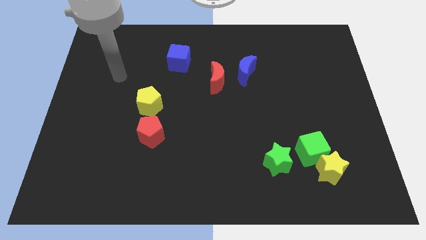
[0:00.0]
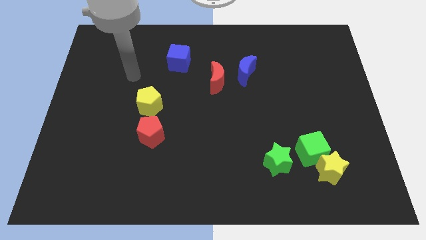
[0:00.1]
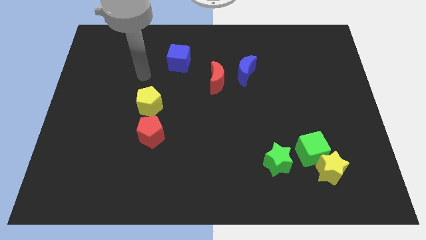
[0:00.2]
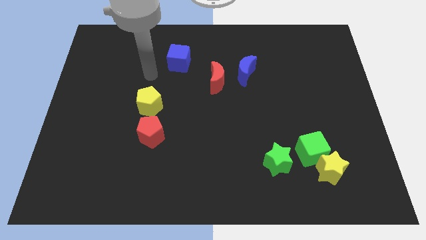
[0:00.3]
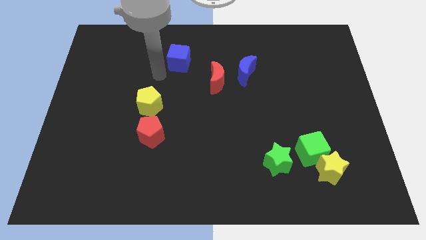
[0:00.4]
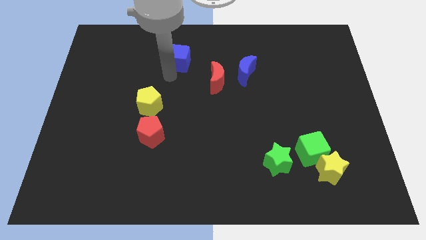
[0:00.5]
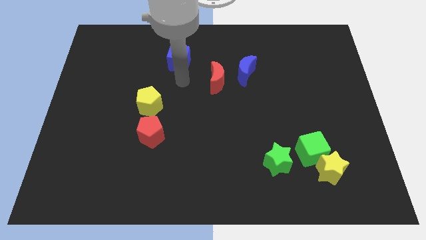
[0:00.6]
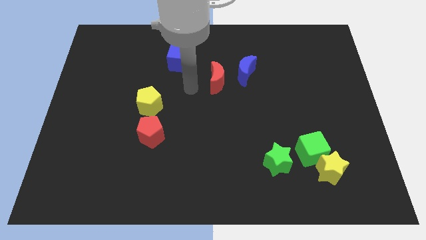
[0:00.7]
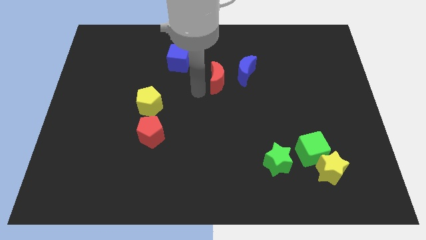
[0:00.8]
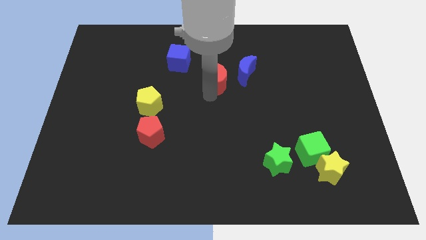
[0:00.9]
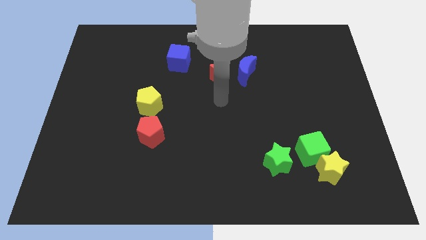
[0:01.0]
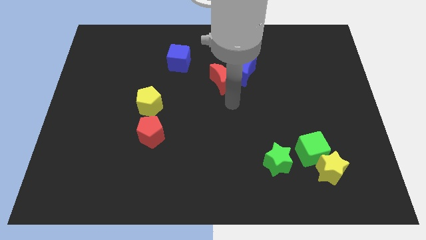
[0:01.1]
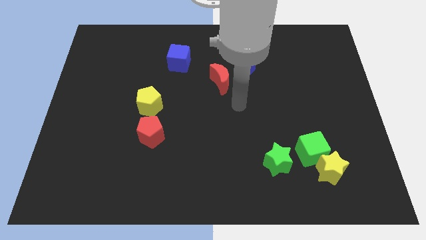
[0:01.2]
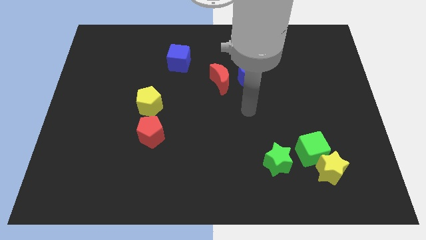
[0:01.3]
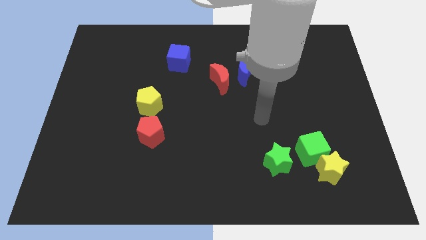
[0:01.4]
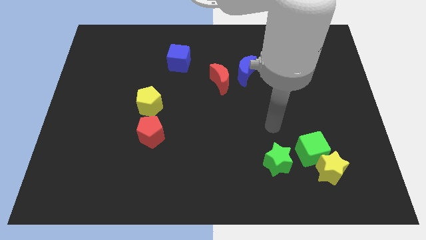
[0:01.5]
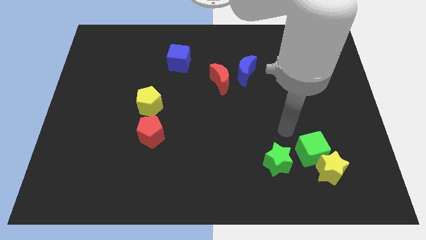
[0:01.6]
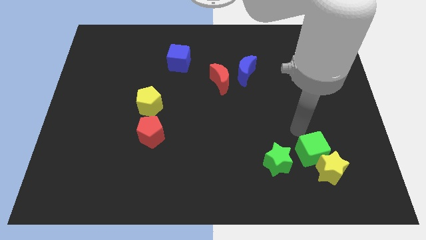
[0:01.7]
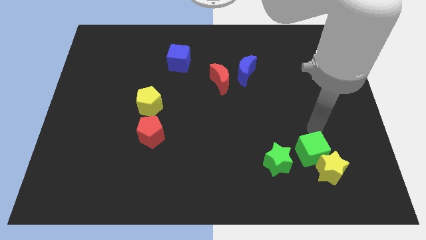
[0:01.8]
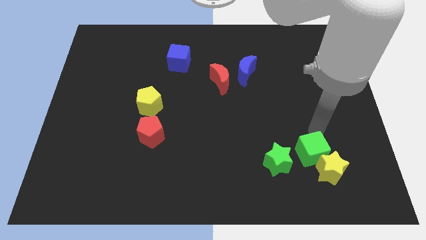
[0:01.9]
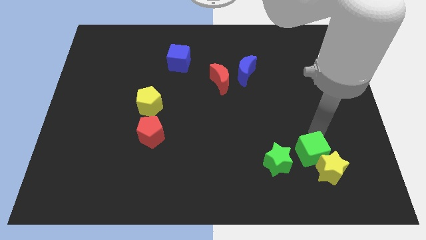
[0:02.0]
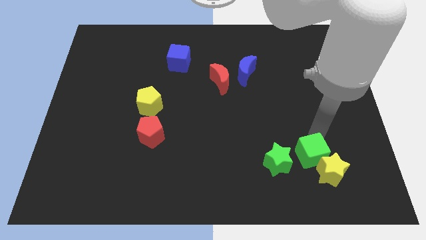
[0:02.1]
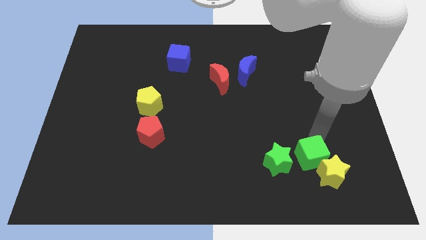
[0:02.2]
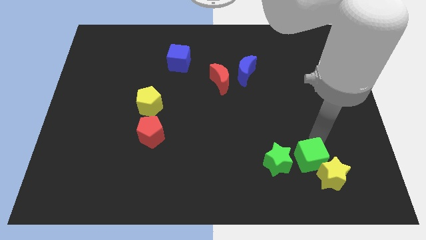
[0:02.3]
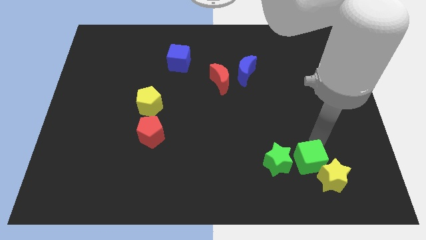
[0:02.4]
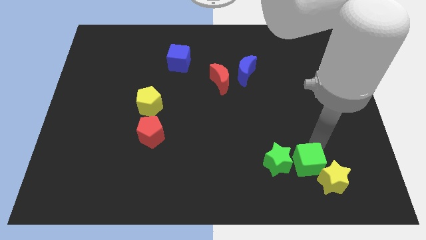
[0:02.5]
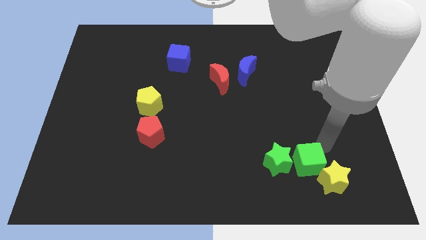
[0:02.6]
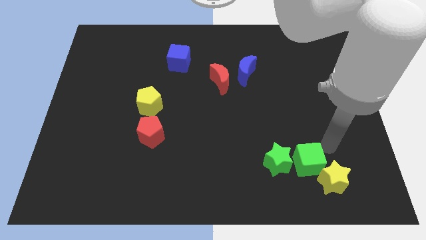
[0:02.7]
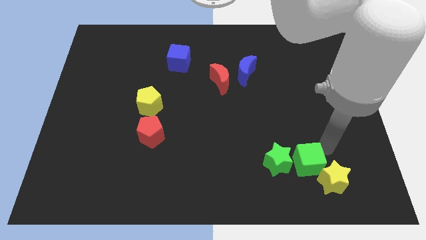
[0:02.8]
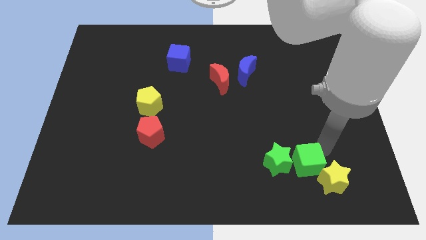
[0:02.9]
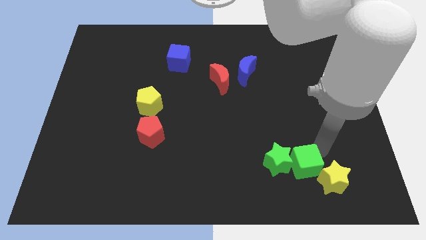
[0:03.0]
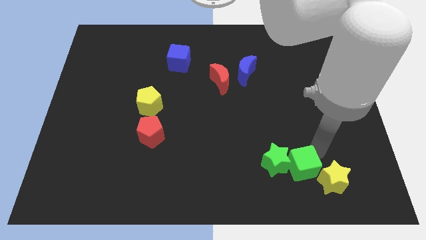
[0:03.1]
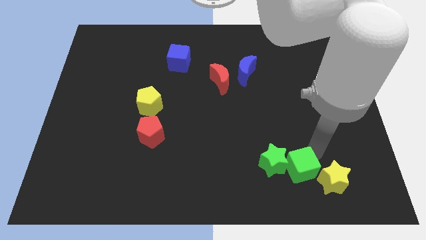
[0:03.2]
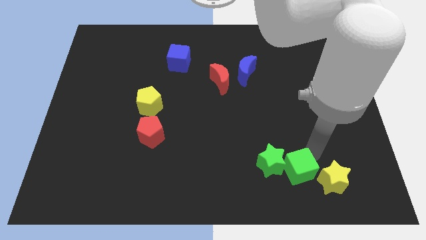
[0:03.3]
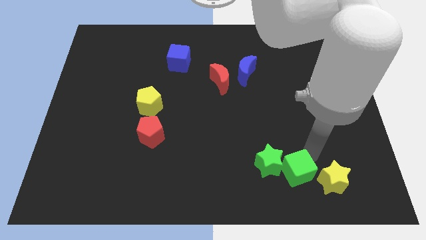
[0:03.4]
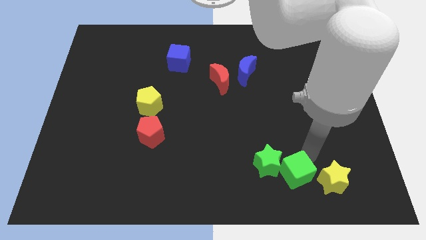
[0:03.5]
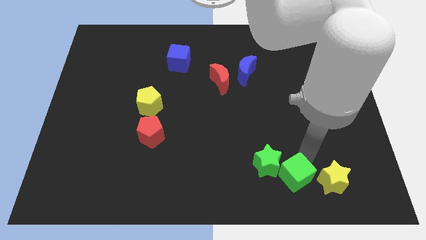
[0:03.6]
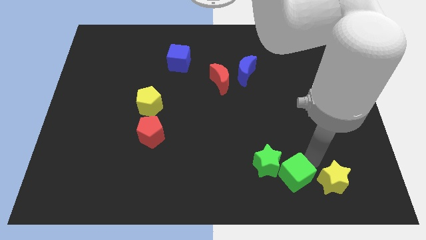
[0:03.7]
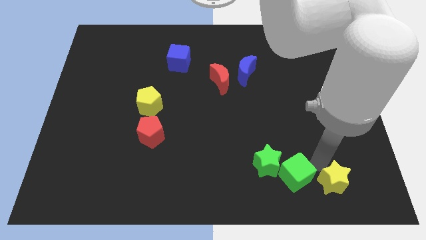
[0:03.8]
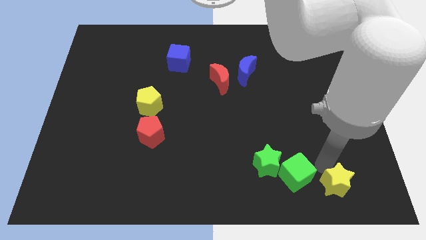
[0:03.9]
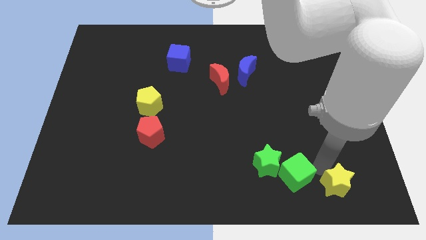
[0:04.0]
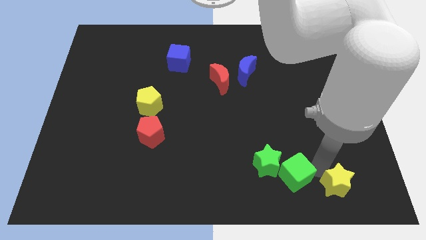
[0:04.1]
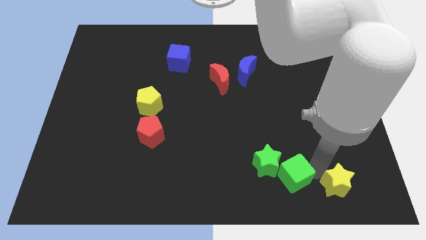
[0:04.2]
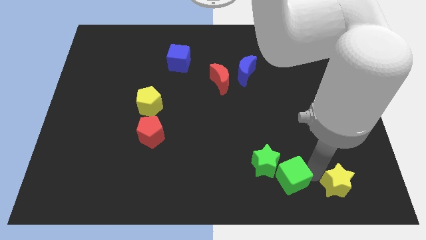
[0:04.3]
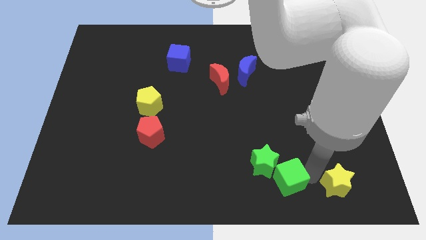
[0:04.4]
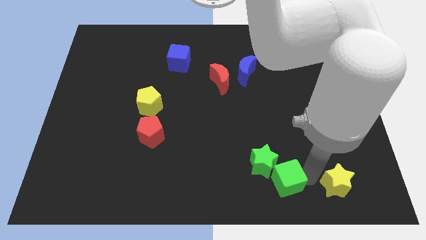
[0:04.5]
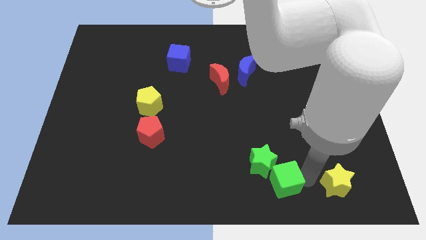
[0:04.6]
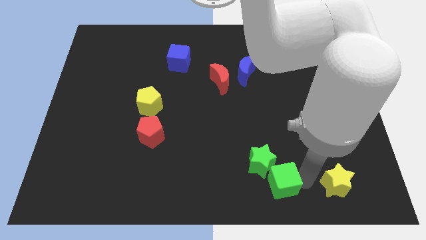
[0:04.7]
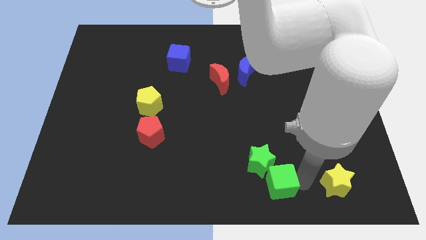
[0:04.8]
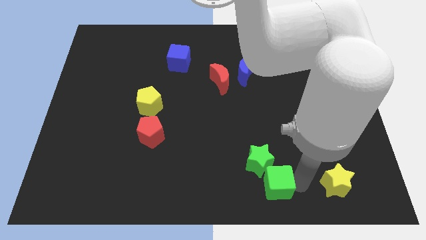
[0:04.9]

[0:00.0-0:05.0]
move the green cube to the bottom side

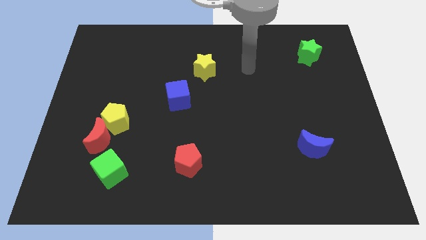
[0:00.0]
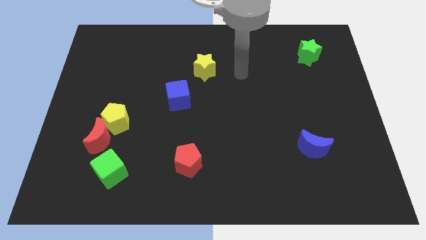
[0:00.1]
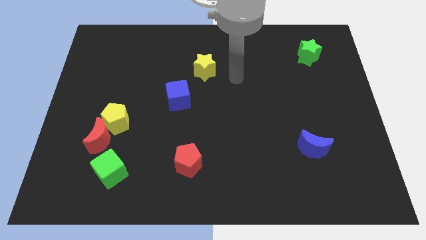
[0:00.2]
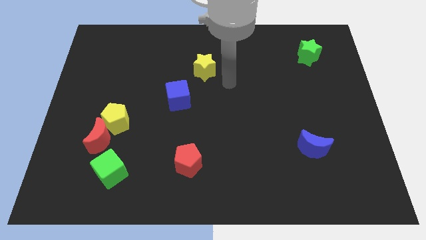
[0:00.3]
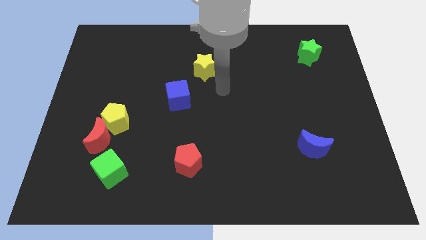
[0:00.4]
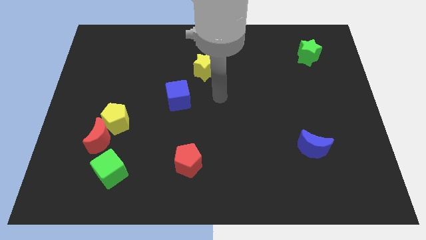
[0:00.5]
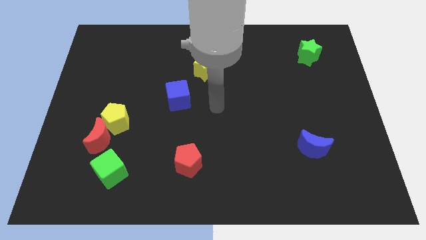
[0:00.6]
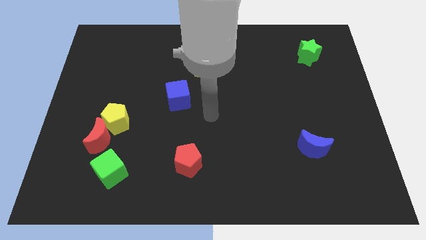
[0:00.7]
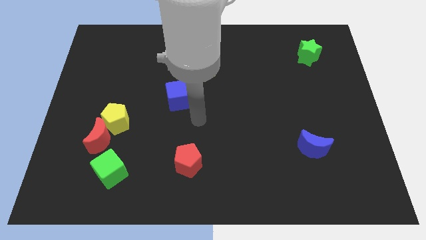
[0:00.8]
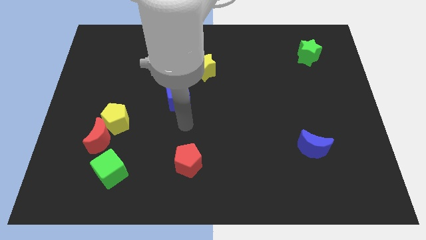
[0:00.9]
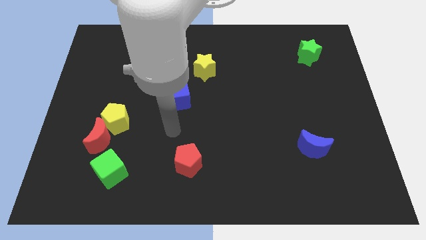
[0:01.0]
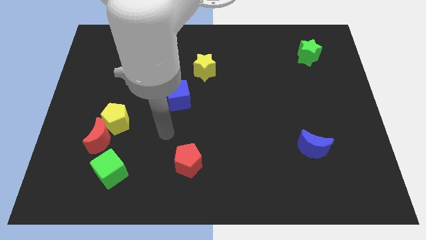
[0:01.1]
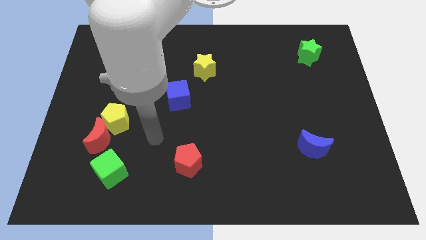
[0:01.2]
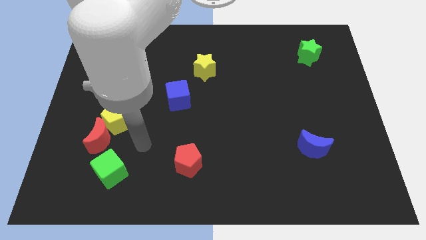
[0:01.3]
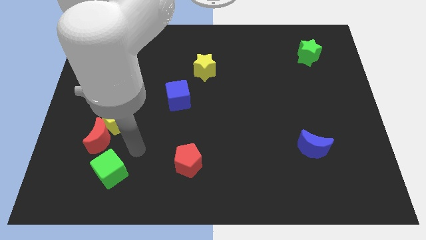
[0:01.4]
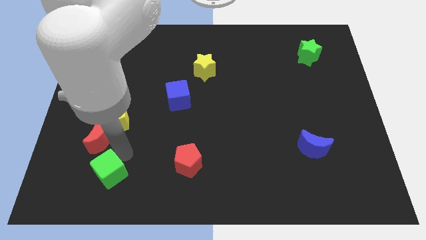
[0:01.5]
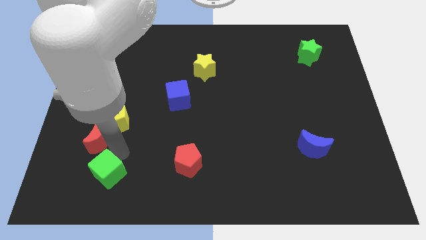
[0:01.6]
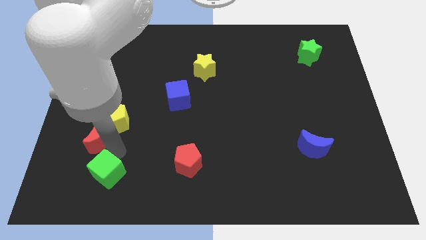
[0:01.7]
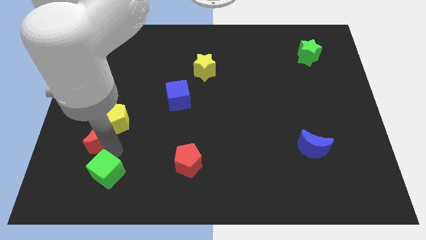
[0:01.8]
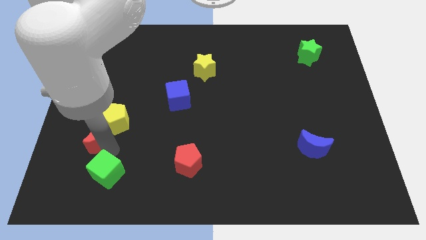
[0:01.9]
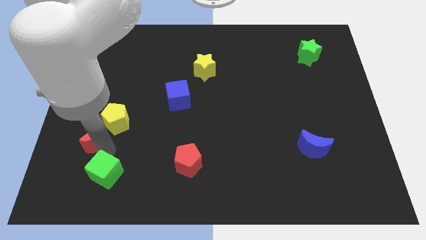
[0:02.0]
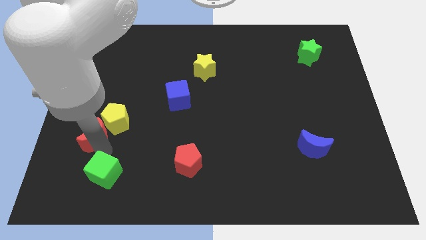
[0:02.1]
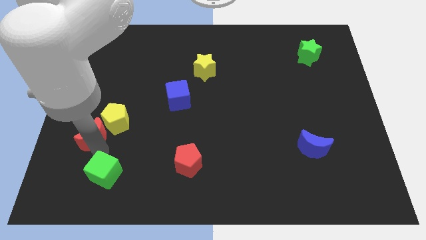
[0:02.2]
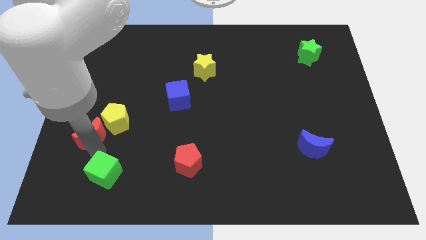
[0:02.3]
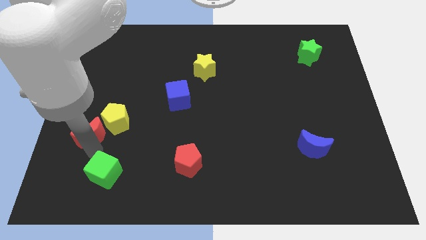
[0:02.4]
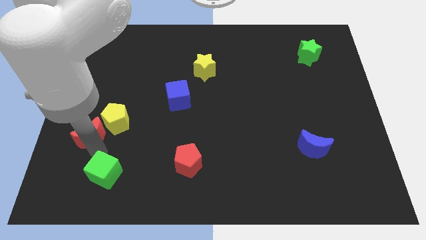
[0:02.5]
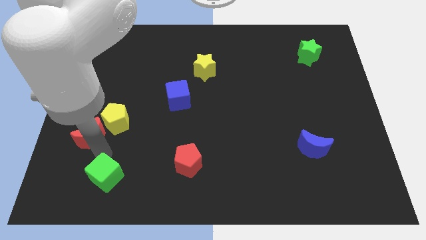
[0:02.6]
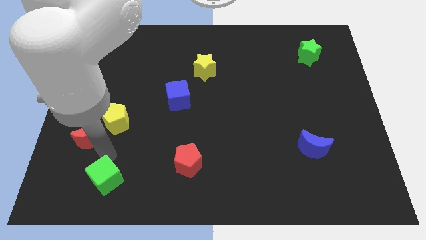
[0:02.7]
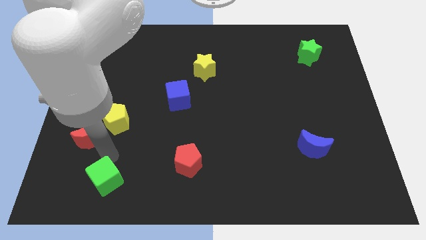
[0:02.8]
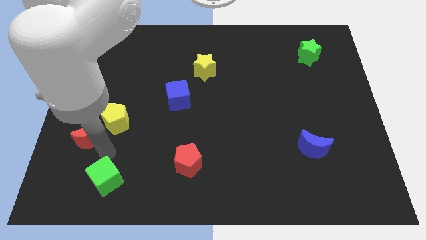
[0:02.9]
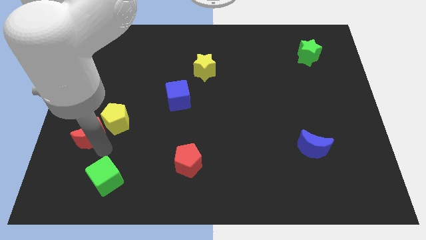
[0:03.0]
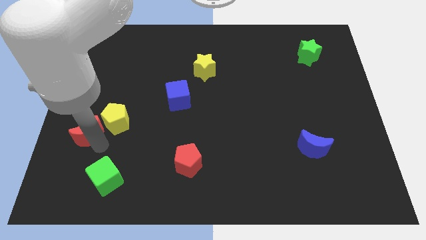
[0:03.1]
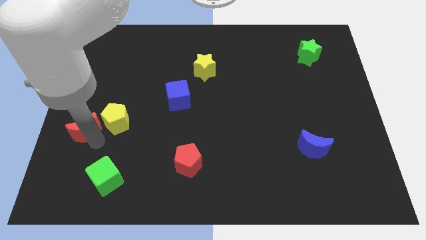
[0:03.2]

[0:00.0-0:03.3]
move the red moon to the left side of the board

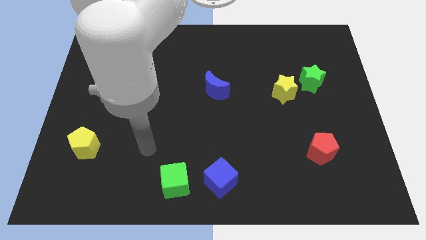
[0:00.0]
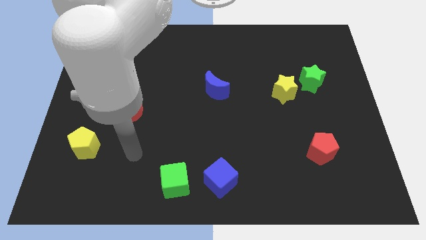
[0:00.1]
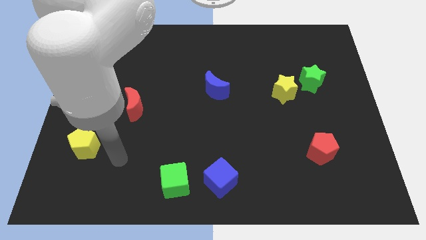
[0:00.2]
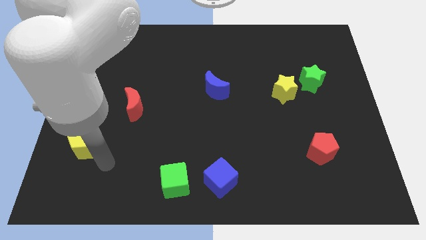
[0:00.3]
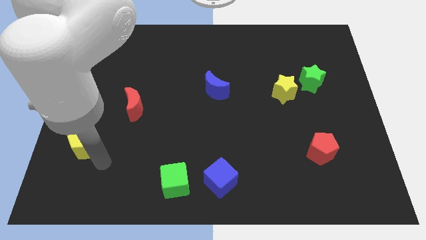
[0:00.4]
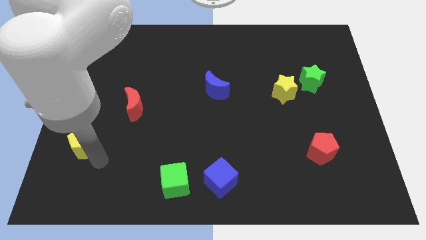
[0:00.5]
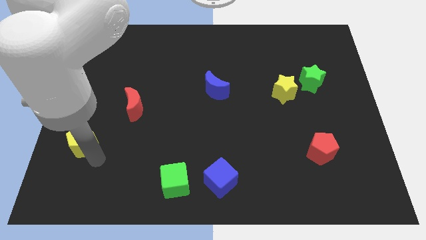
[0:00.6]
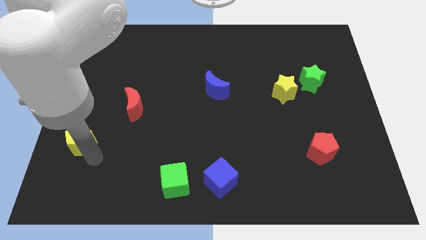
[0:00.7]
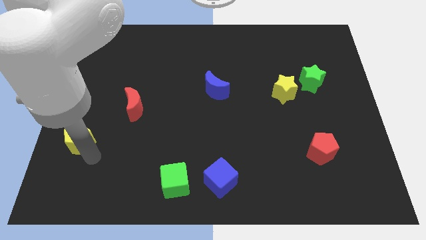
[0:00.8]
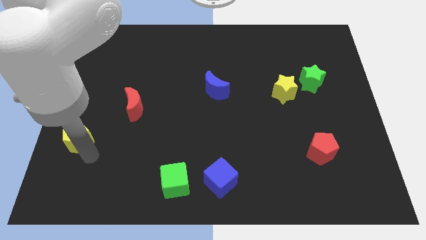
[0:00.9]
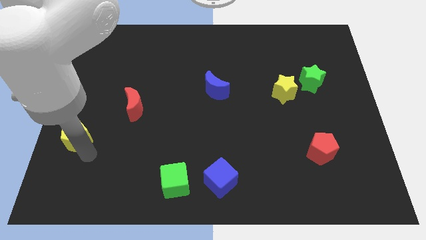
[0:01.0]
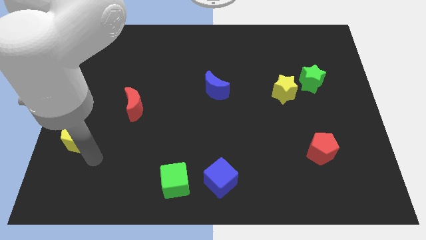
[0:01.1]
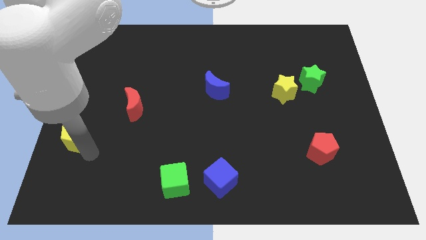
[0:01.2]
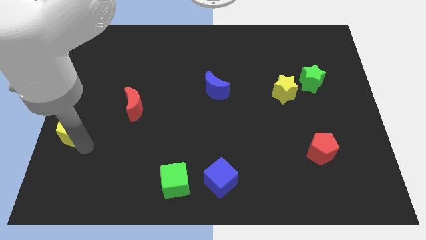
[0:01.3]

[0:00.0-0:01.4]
move the yellow pentagon to the left side
